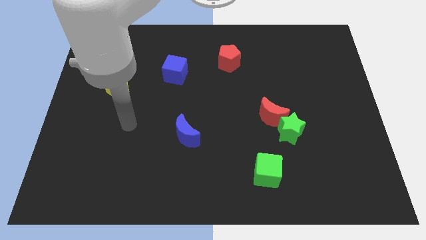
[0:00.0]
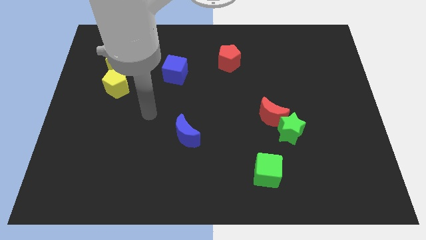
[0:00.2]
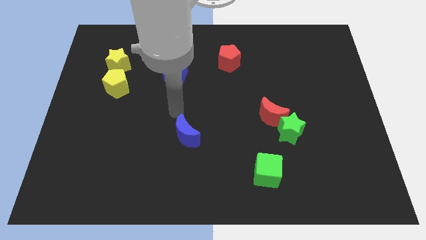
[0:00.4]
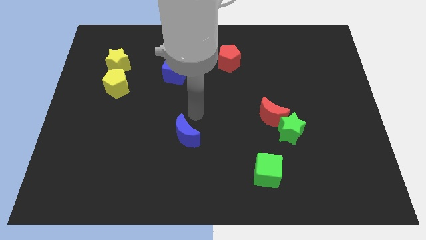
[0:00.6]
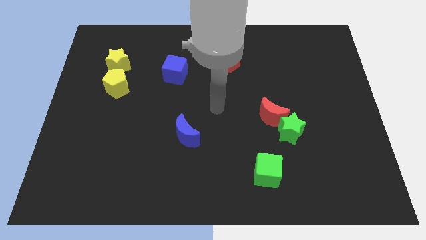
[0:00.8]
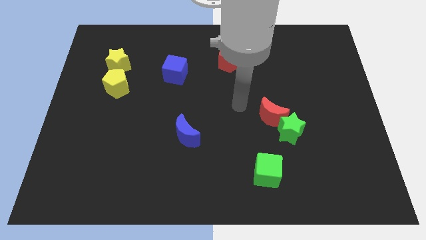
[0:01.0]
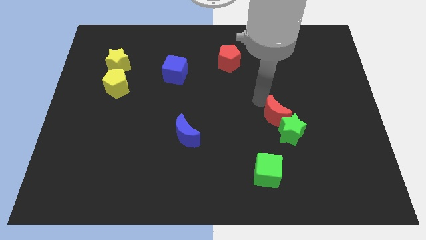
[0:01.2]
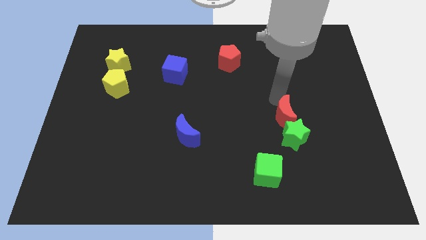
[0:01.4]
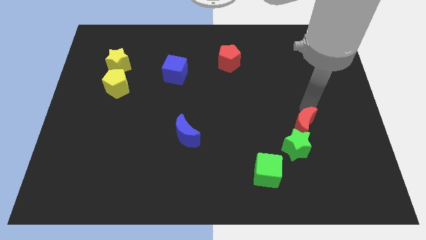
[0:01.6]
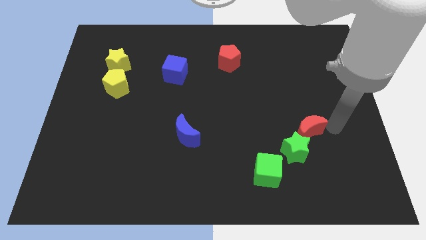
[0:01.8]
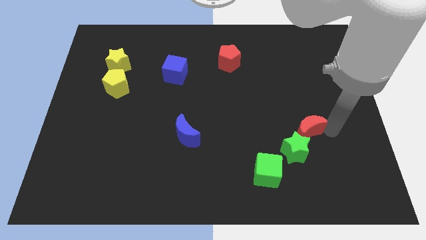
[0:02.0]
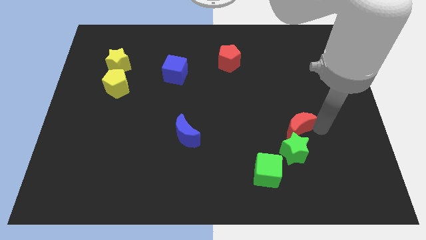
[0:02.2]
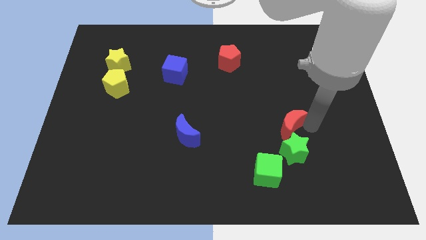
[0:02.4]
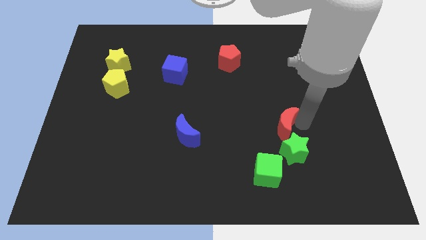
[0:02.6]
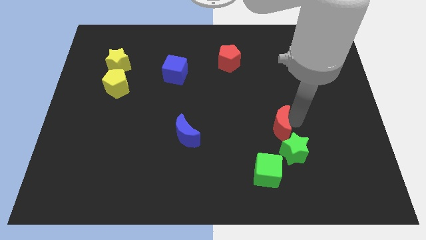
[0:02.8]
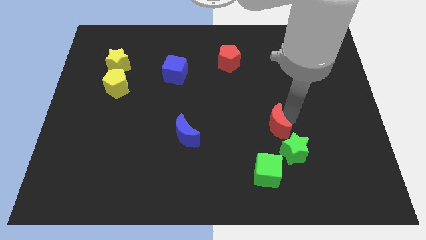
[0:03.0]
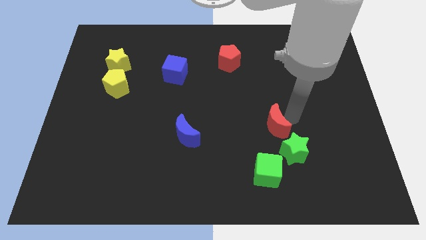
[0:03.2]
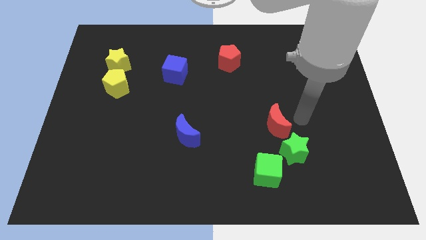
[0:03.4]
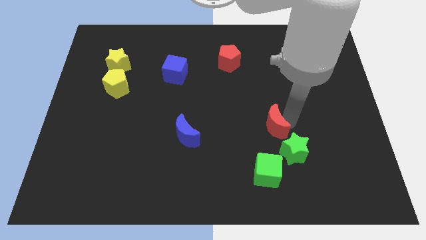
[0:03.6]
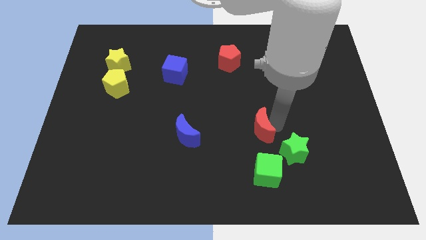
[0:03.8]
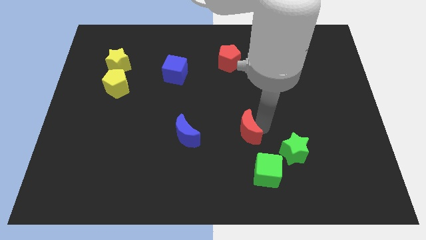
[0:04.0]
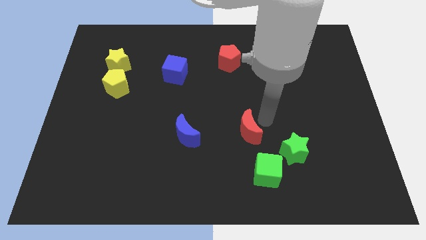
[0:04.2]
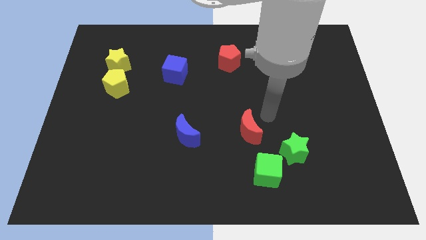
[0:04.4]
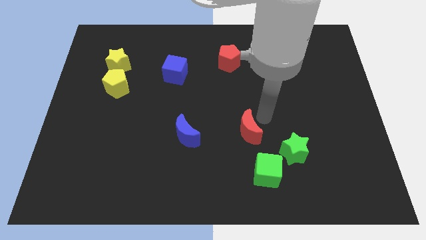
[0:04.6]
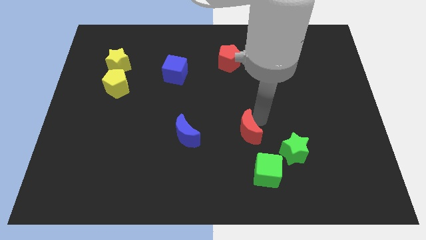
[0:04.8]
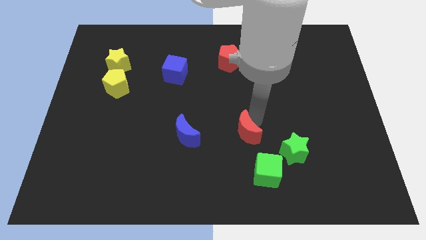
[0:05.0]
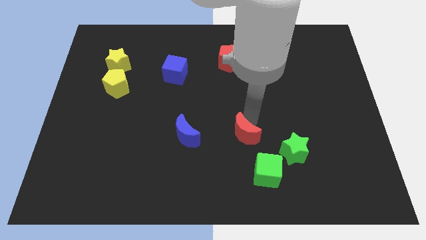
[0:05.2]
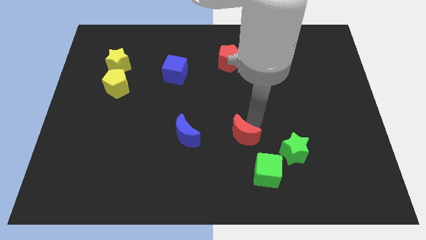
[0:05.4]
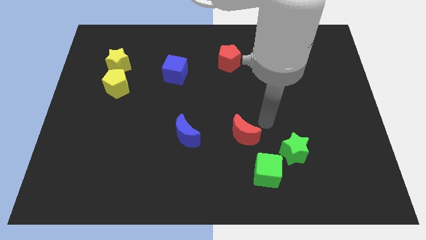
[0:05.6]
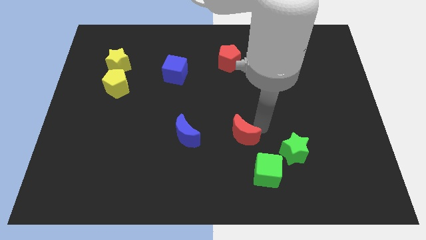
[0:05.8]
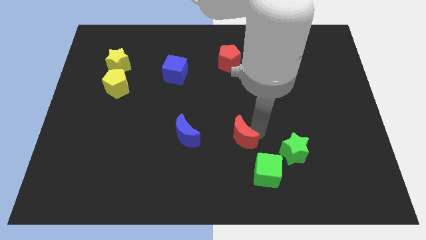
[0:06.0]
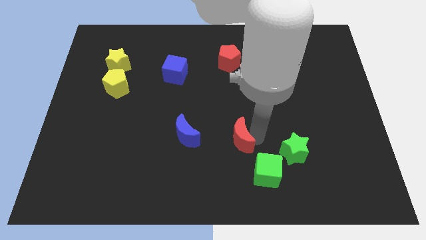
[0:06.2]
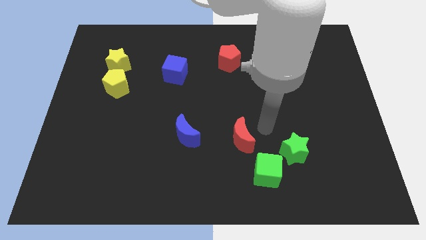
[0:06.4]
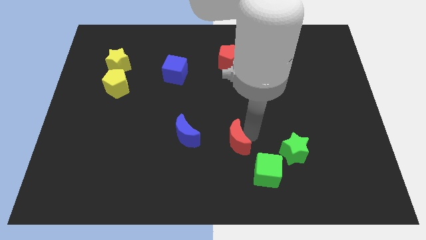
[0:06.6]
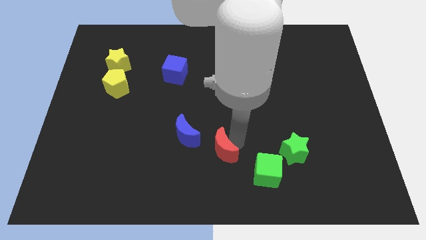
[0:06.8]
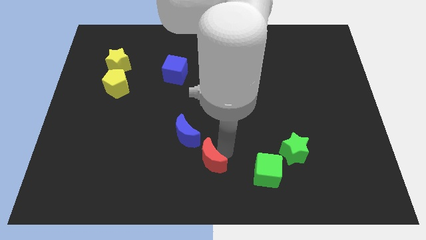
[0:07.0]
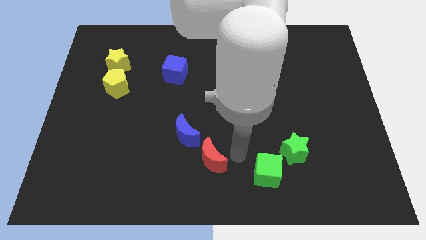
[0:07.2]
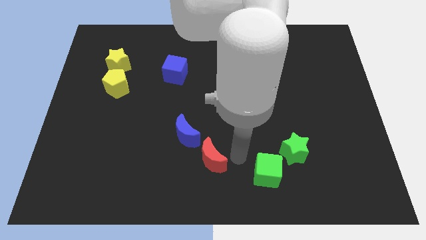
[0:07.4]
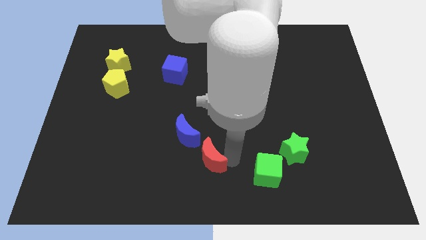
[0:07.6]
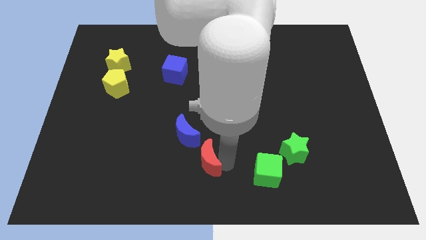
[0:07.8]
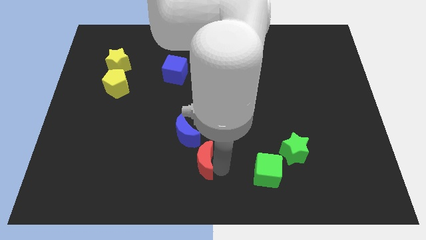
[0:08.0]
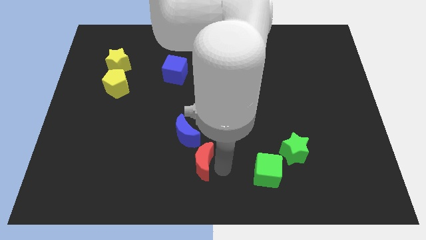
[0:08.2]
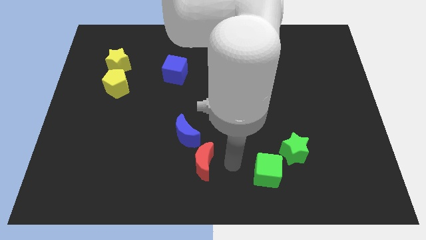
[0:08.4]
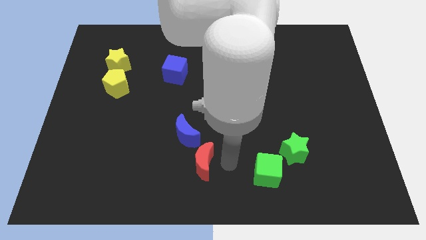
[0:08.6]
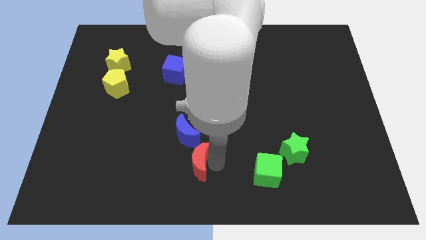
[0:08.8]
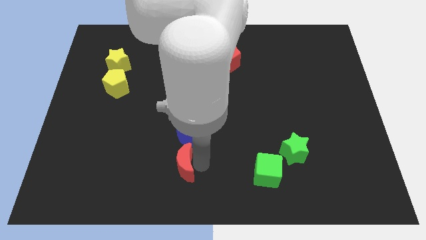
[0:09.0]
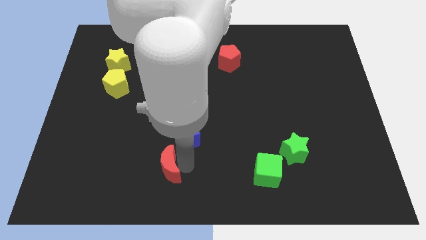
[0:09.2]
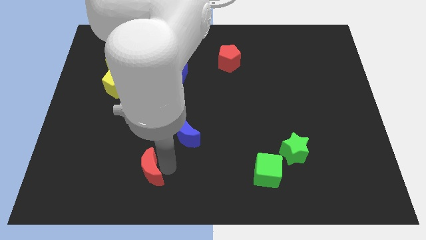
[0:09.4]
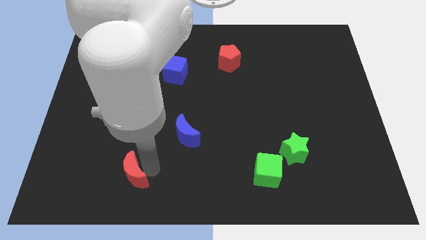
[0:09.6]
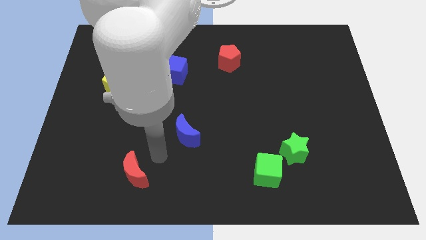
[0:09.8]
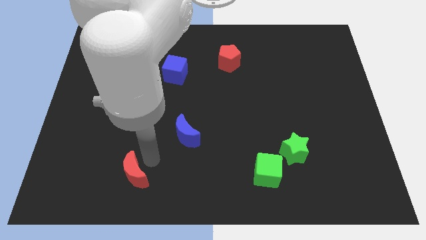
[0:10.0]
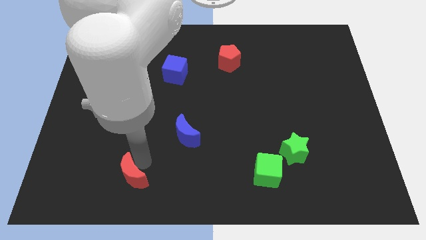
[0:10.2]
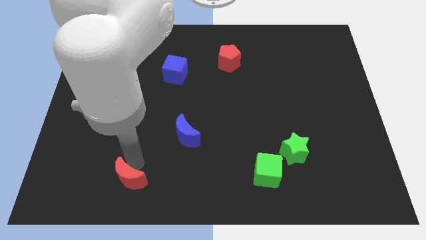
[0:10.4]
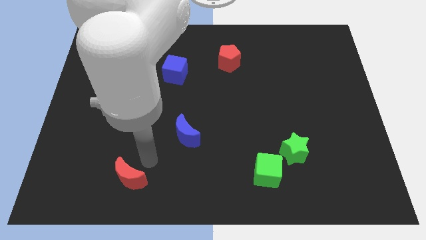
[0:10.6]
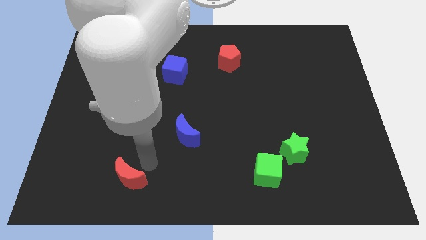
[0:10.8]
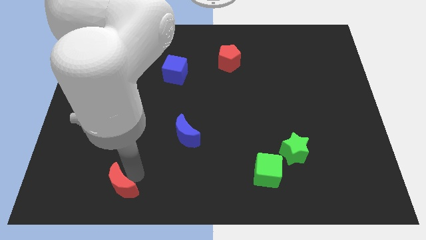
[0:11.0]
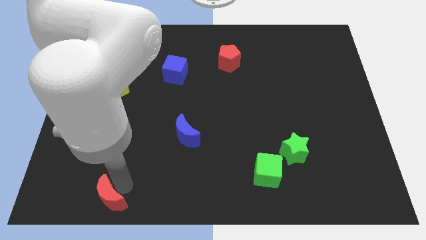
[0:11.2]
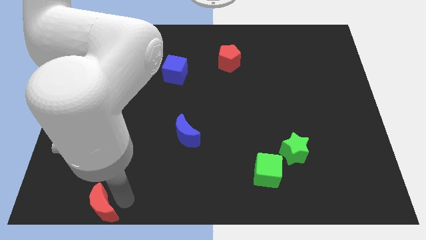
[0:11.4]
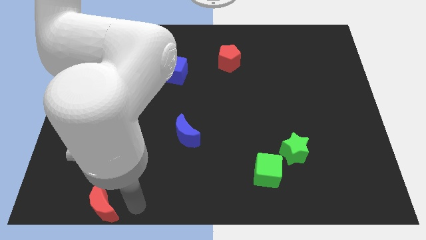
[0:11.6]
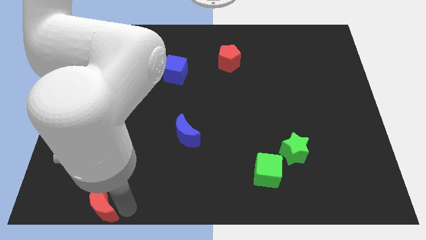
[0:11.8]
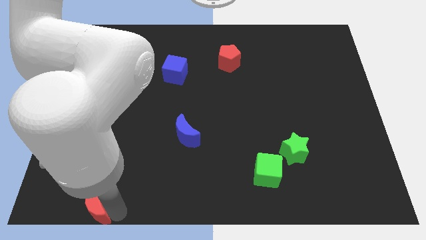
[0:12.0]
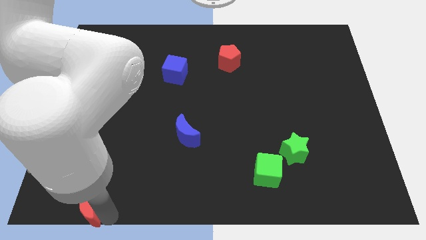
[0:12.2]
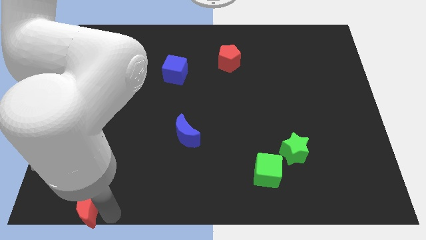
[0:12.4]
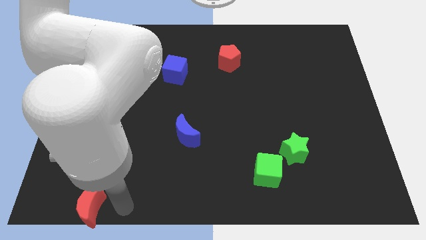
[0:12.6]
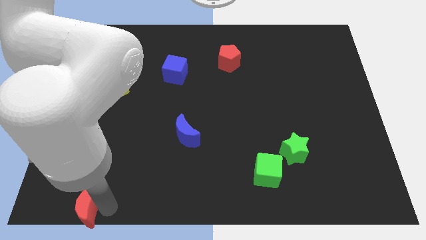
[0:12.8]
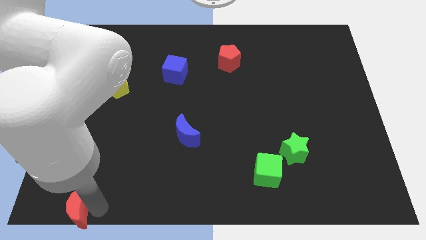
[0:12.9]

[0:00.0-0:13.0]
push the red moon to the bottom left of the board
